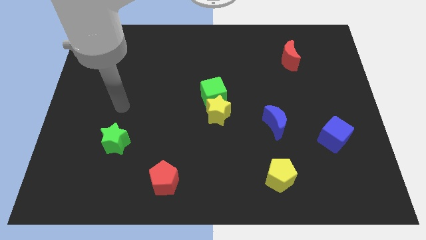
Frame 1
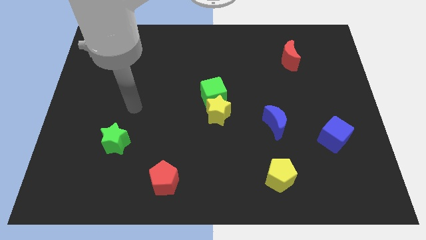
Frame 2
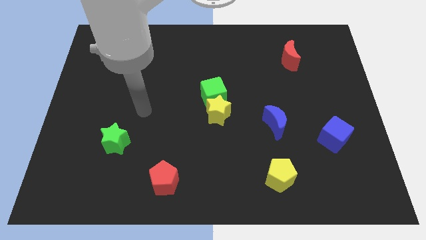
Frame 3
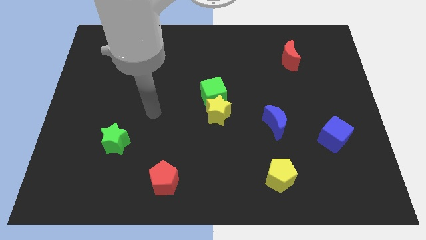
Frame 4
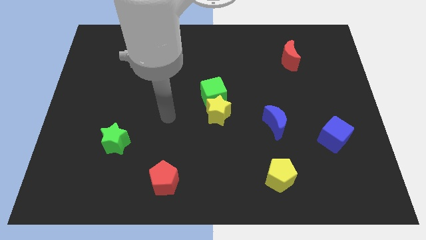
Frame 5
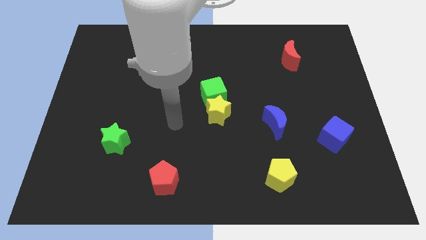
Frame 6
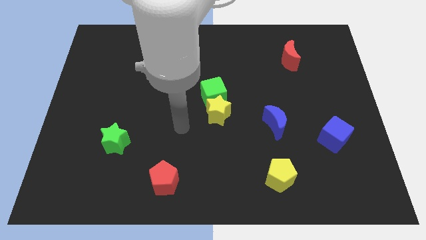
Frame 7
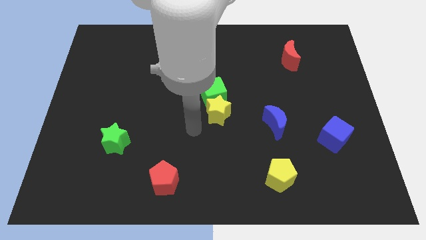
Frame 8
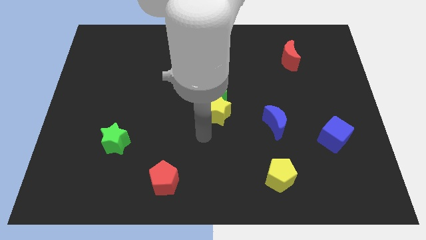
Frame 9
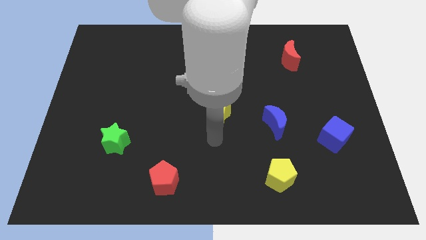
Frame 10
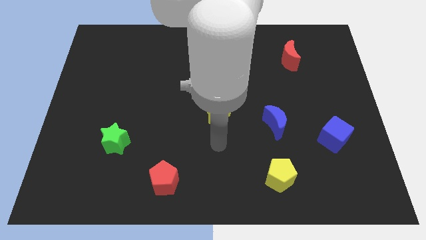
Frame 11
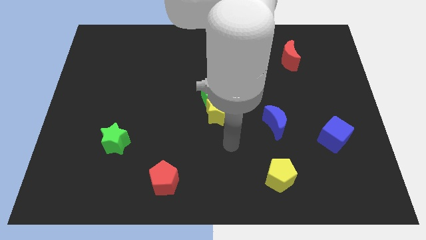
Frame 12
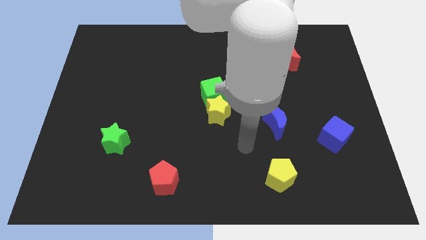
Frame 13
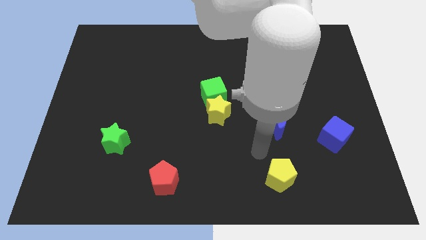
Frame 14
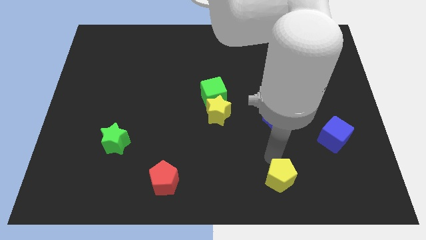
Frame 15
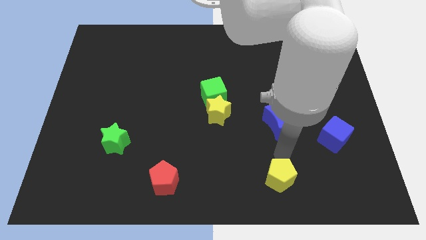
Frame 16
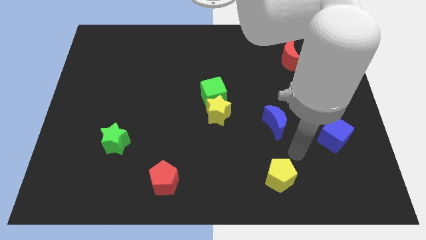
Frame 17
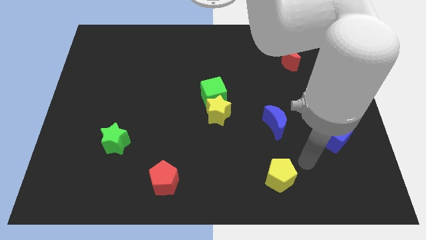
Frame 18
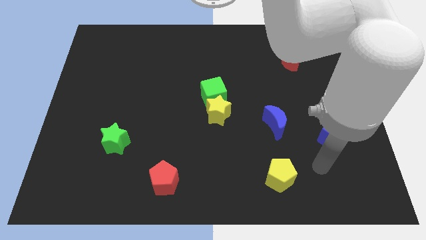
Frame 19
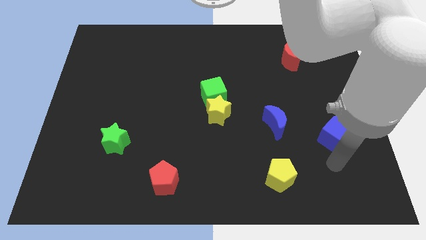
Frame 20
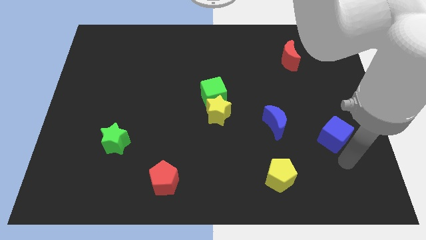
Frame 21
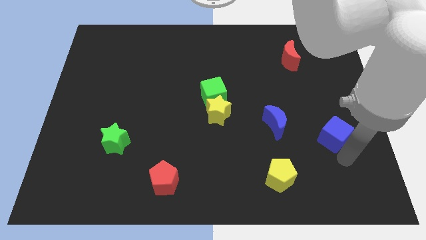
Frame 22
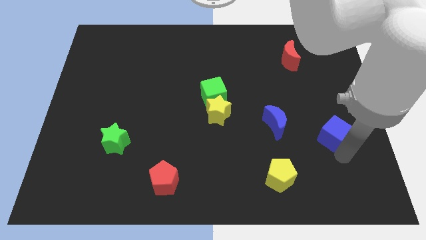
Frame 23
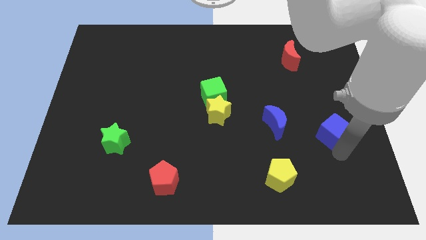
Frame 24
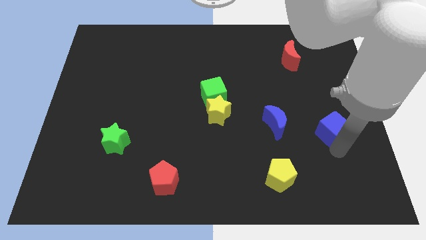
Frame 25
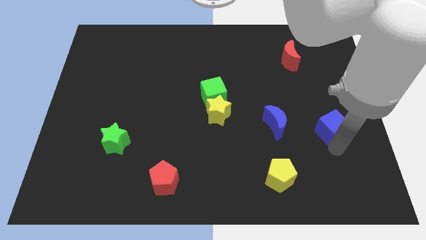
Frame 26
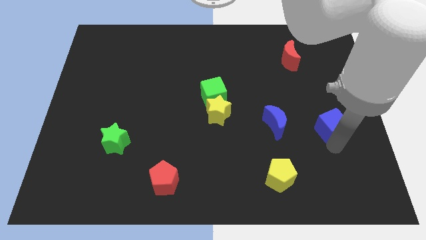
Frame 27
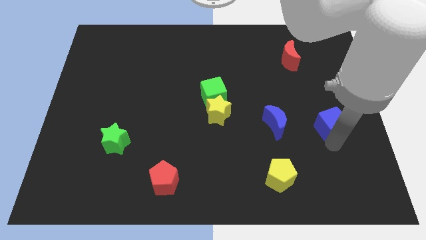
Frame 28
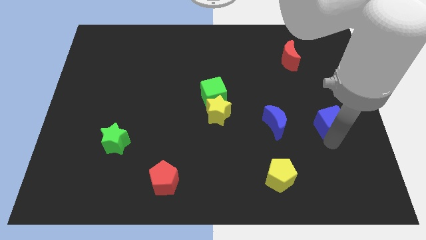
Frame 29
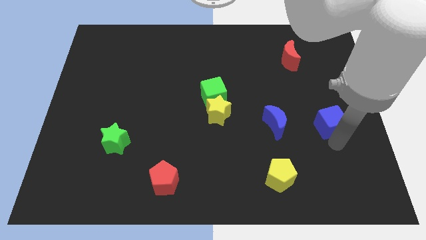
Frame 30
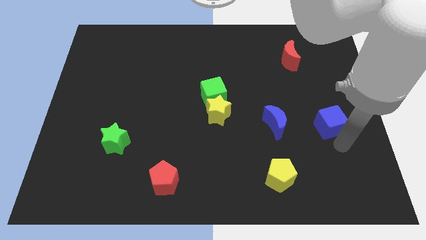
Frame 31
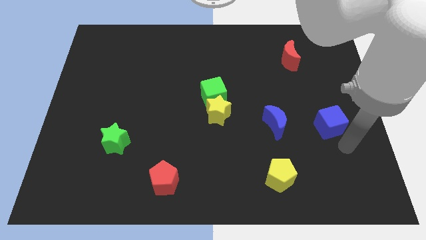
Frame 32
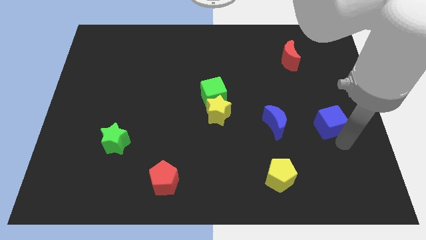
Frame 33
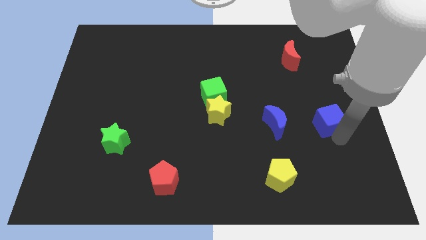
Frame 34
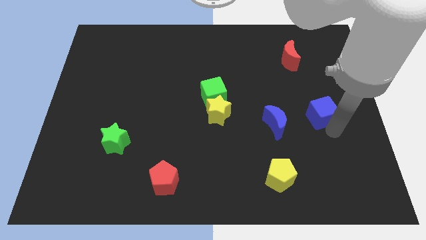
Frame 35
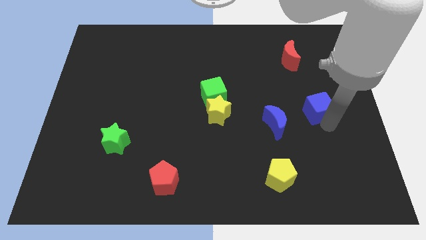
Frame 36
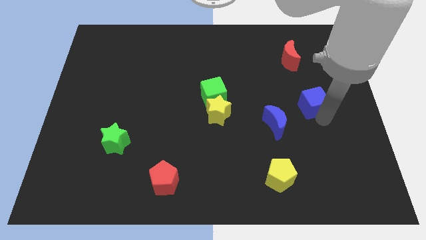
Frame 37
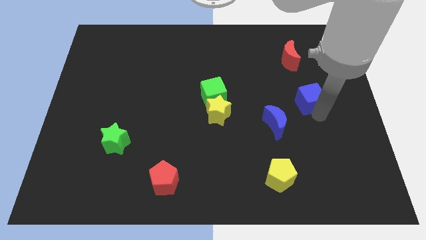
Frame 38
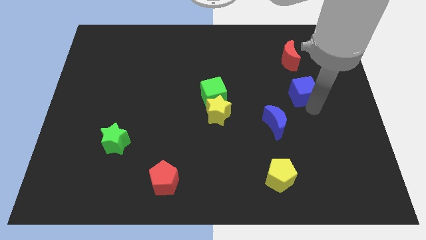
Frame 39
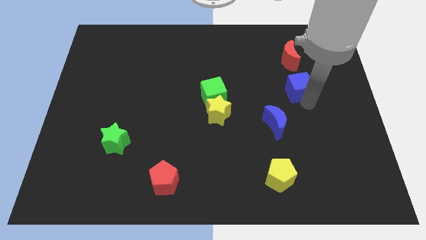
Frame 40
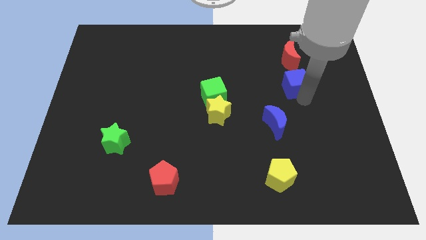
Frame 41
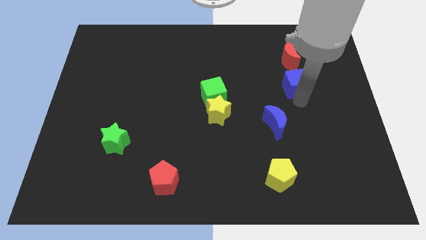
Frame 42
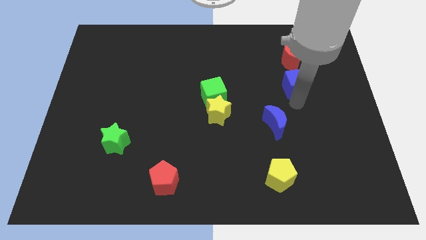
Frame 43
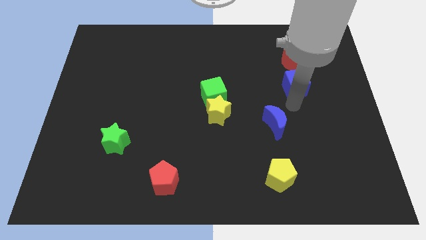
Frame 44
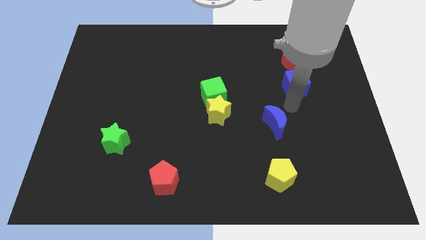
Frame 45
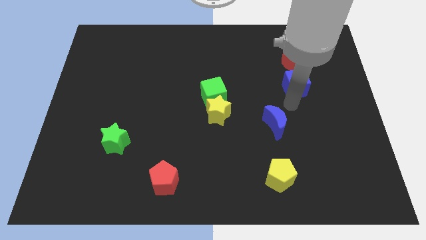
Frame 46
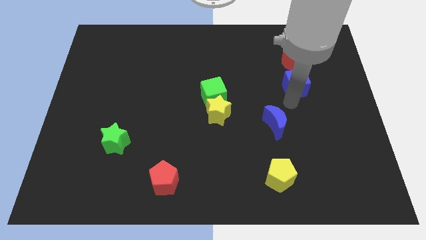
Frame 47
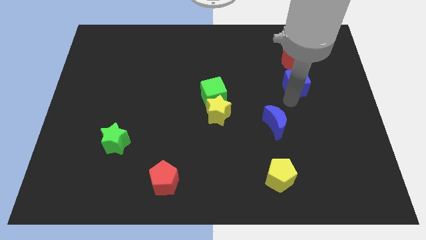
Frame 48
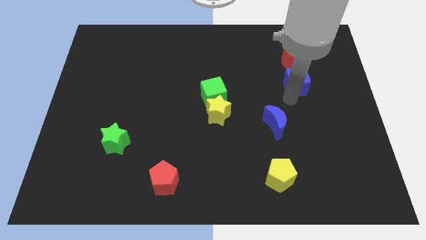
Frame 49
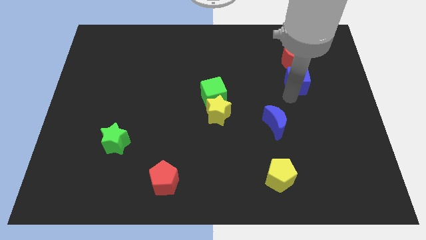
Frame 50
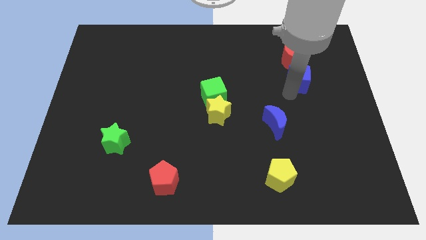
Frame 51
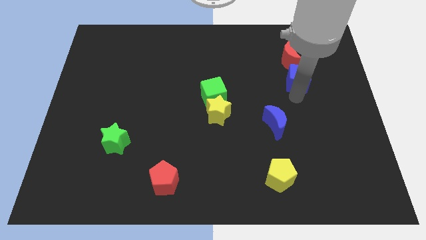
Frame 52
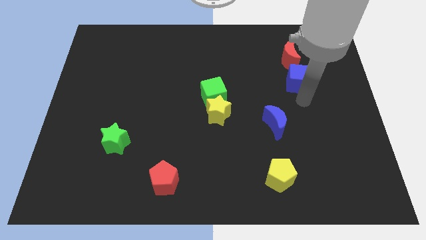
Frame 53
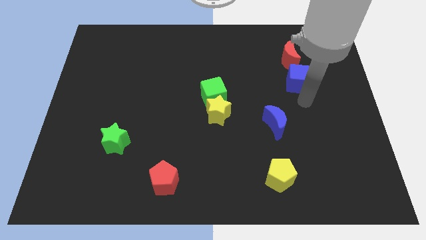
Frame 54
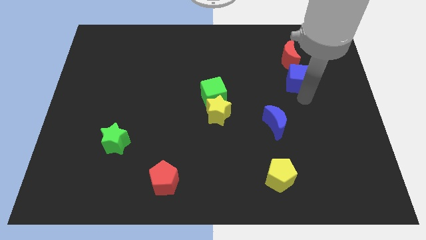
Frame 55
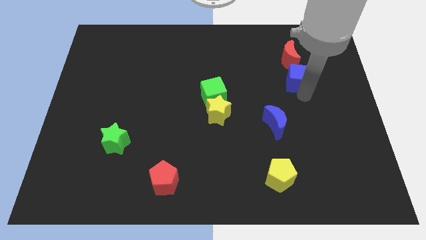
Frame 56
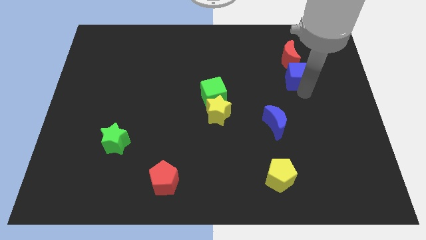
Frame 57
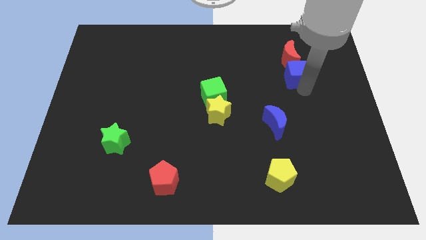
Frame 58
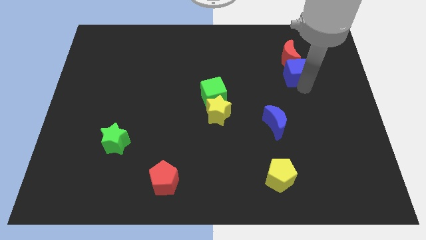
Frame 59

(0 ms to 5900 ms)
put the blue cube towards the red moon

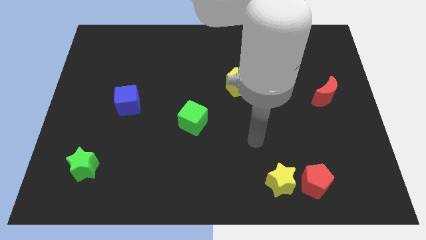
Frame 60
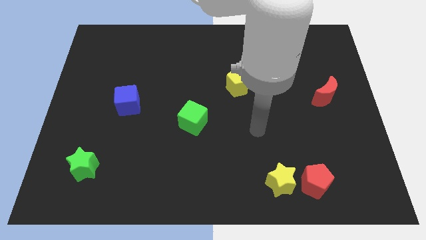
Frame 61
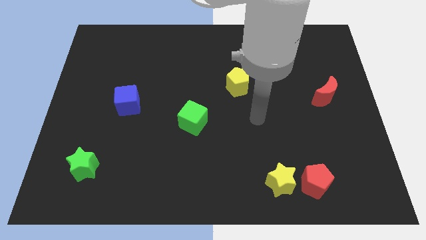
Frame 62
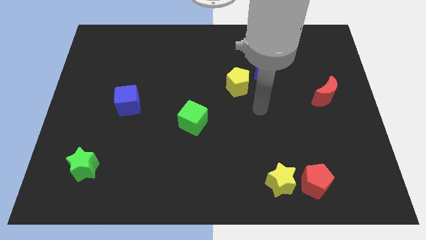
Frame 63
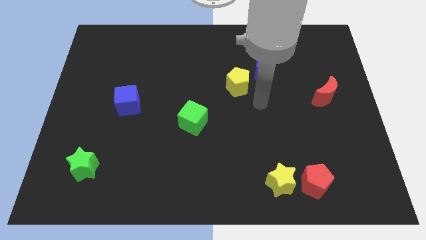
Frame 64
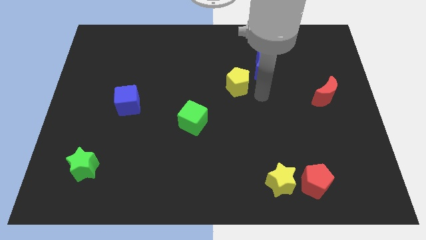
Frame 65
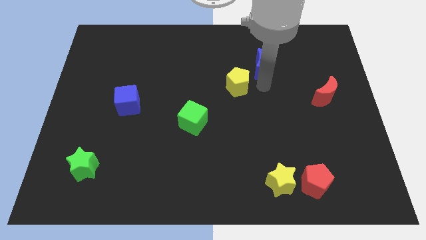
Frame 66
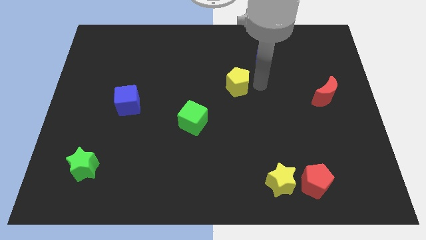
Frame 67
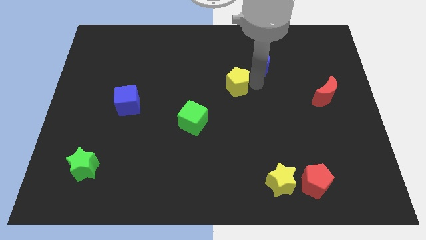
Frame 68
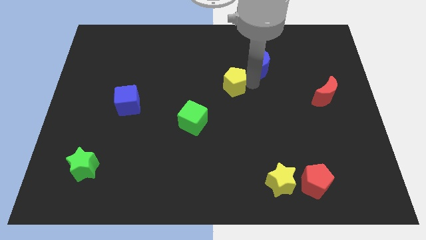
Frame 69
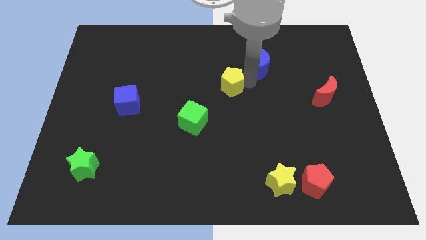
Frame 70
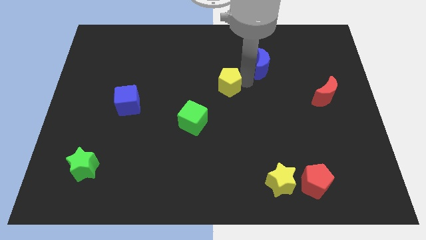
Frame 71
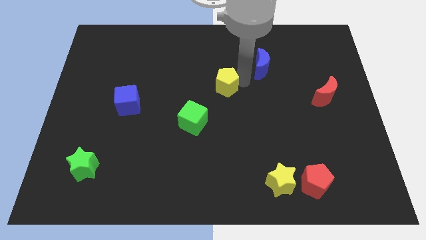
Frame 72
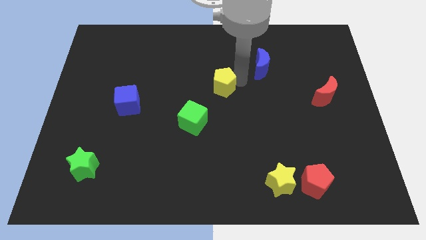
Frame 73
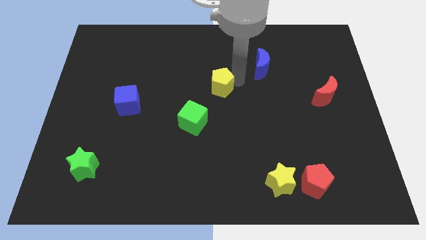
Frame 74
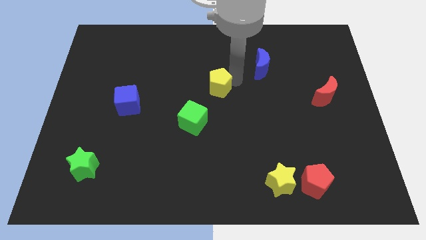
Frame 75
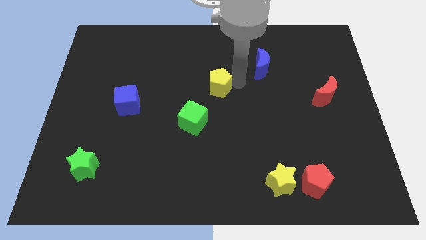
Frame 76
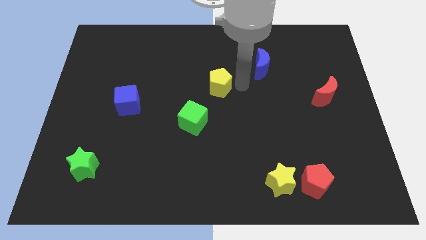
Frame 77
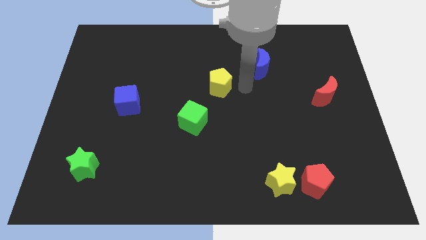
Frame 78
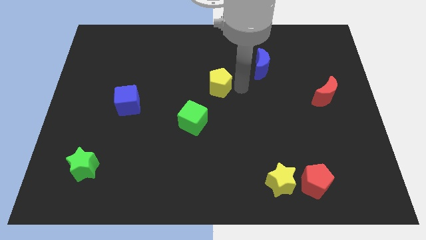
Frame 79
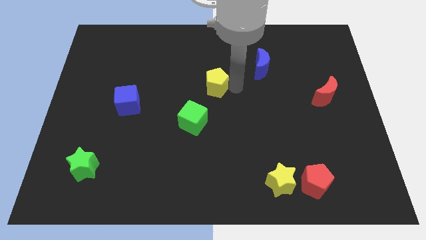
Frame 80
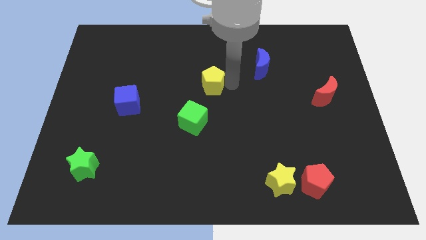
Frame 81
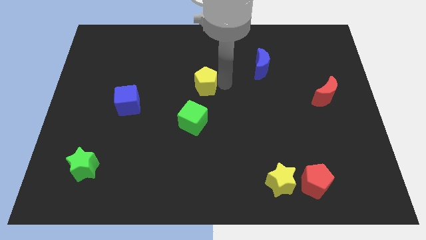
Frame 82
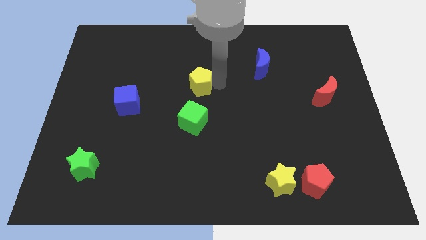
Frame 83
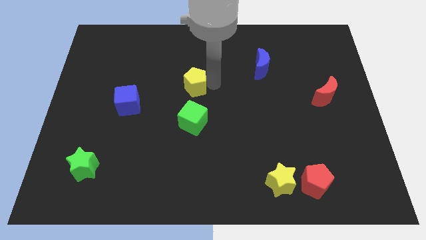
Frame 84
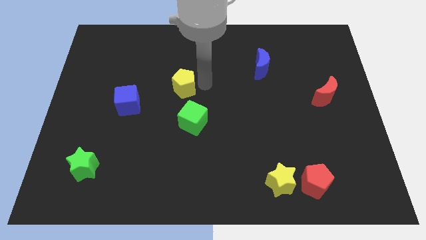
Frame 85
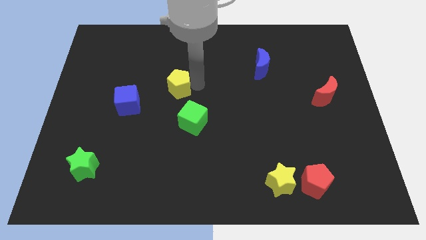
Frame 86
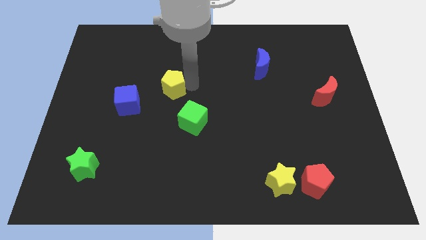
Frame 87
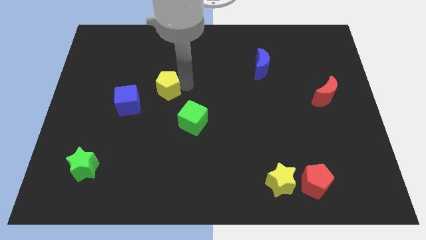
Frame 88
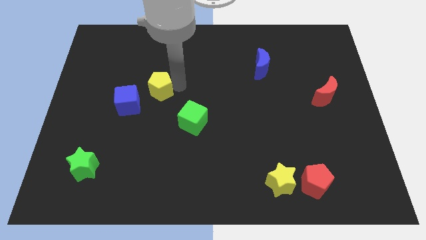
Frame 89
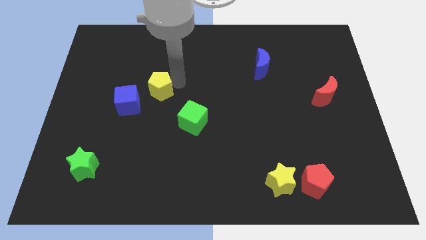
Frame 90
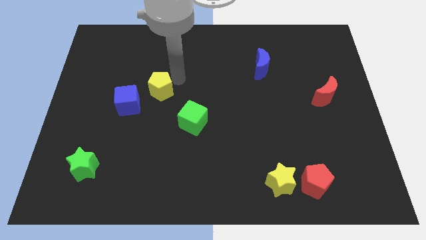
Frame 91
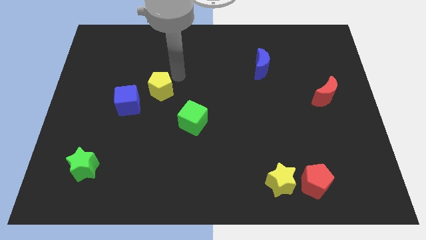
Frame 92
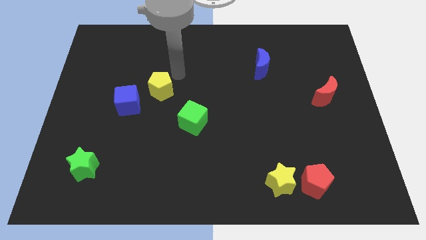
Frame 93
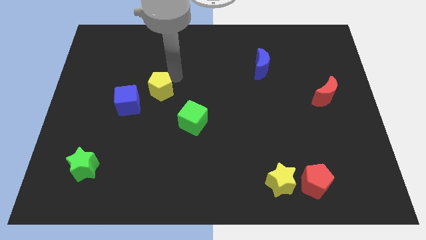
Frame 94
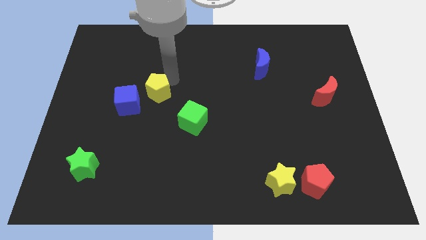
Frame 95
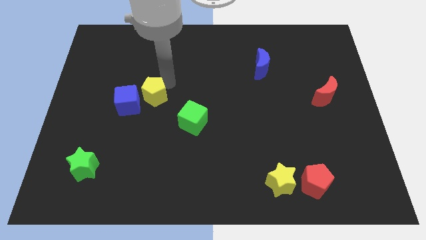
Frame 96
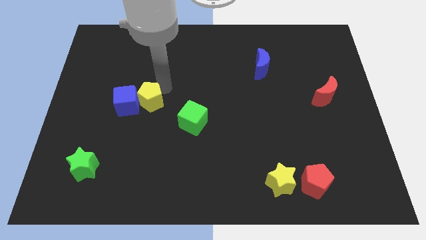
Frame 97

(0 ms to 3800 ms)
slide the yellow pentagon towards the blue cube
